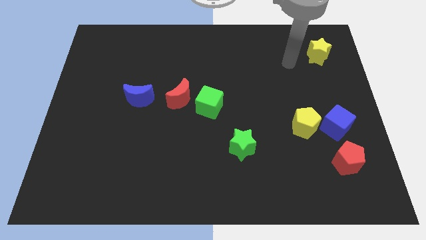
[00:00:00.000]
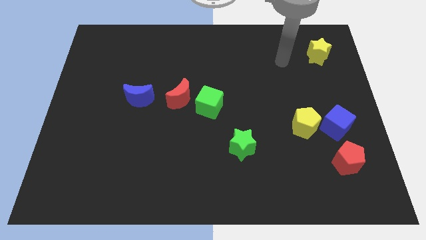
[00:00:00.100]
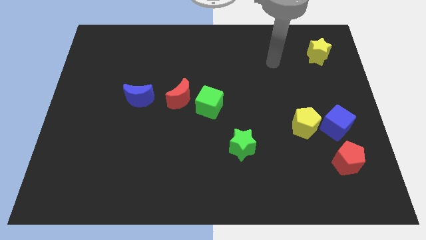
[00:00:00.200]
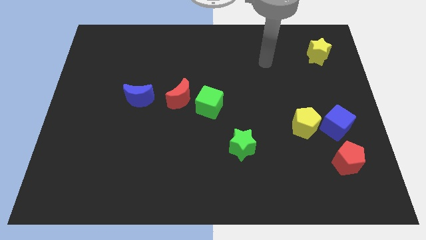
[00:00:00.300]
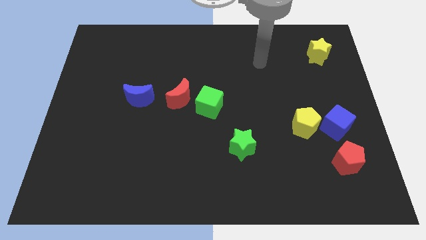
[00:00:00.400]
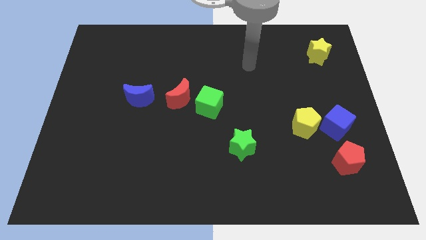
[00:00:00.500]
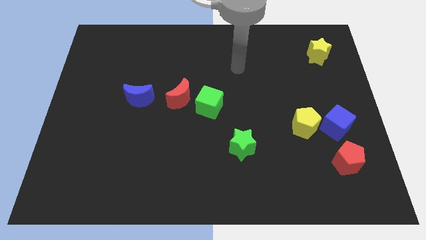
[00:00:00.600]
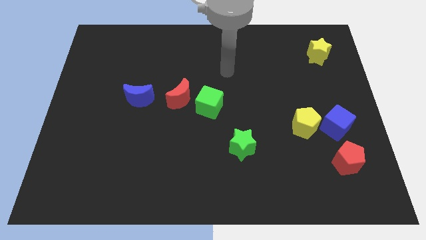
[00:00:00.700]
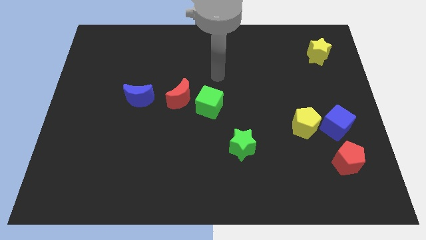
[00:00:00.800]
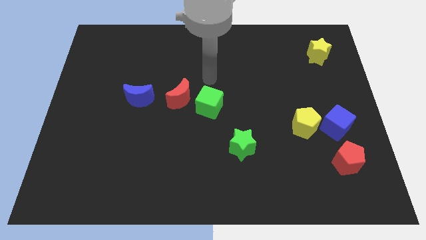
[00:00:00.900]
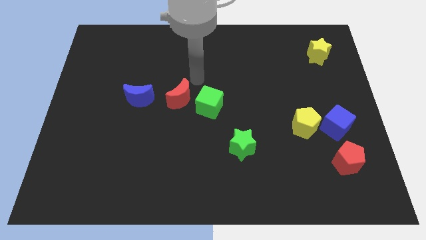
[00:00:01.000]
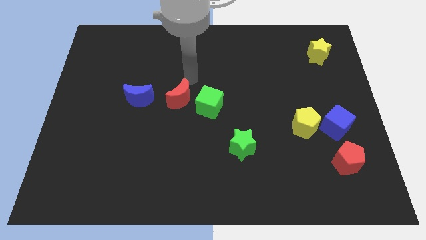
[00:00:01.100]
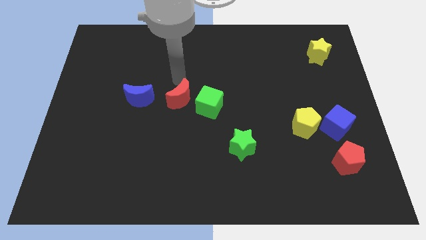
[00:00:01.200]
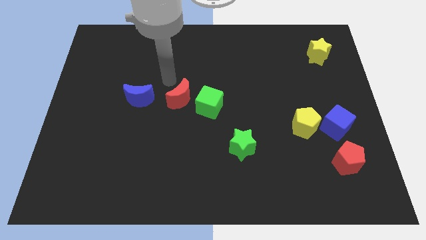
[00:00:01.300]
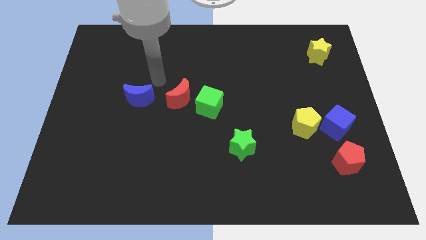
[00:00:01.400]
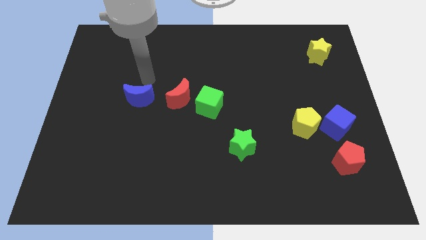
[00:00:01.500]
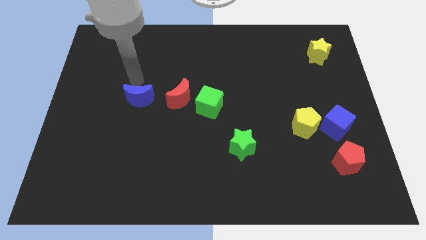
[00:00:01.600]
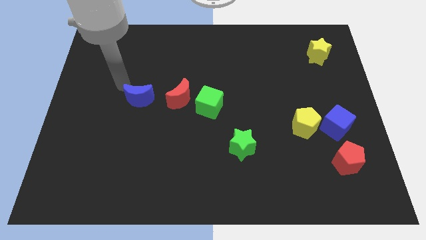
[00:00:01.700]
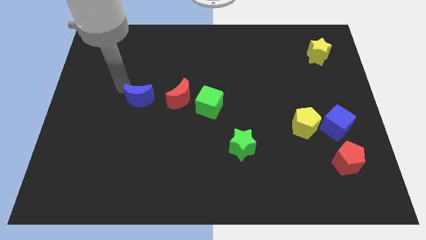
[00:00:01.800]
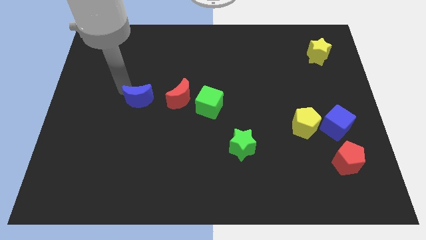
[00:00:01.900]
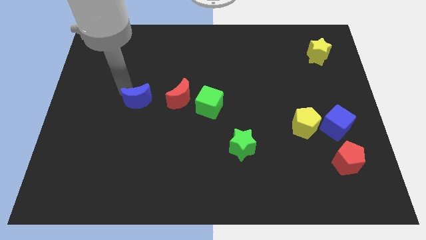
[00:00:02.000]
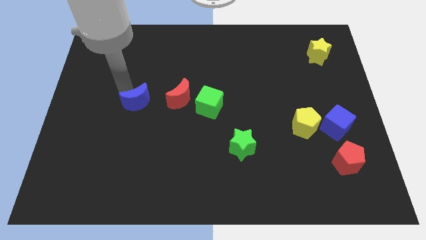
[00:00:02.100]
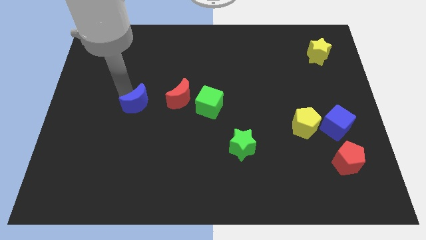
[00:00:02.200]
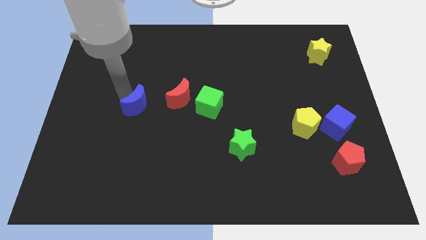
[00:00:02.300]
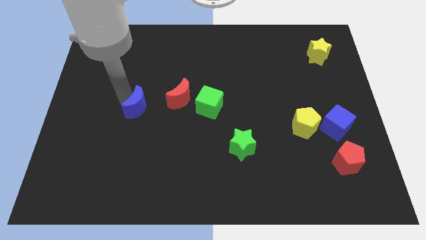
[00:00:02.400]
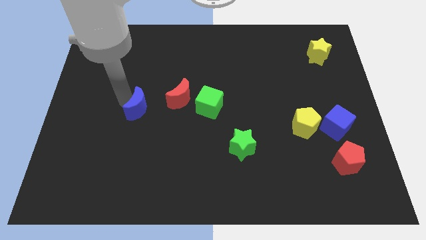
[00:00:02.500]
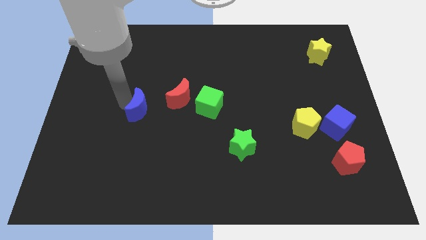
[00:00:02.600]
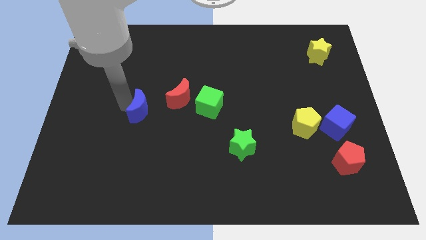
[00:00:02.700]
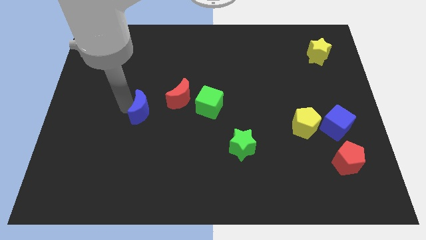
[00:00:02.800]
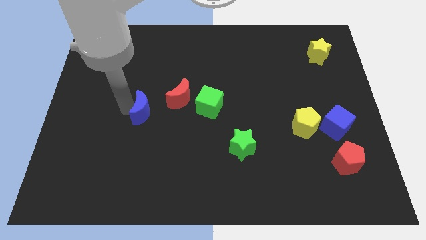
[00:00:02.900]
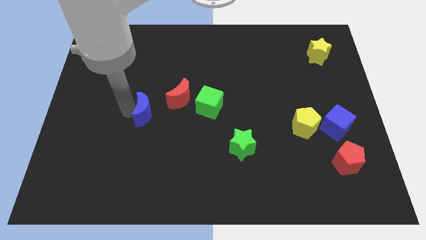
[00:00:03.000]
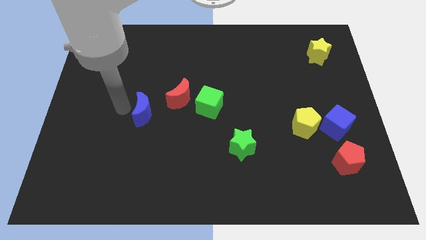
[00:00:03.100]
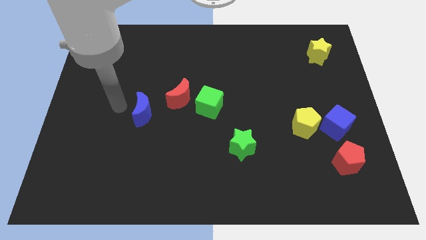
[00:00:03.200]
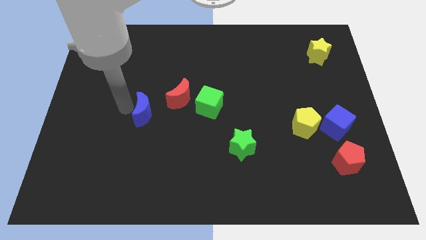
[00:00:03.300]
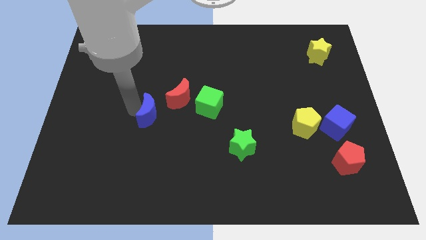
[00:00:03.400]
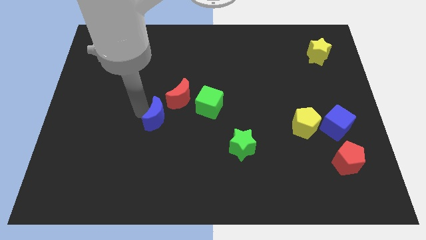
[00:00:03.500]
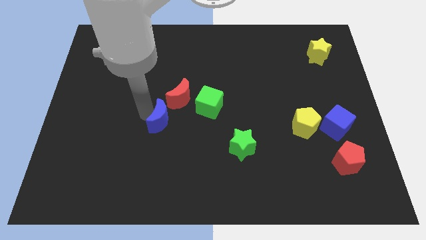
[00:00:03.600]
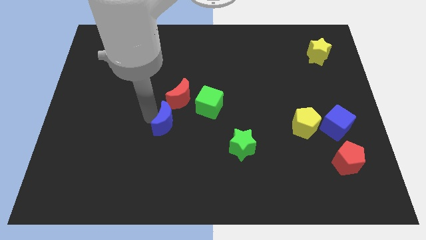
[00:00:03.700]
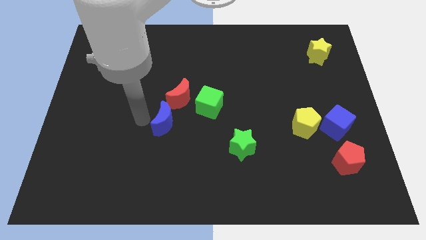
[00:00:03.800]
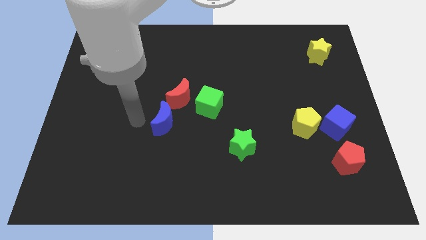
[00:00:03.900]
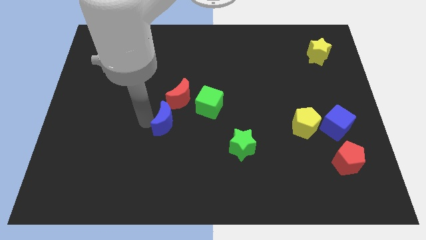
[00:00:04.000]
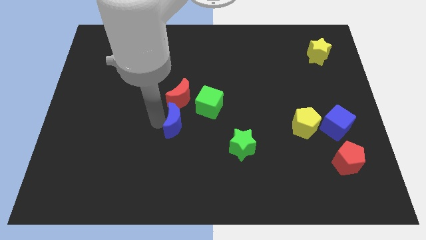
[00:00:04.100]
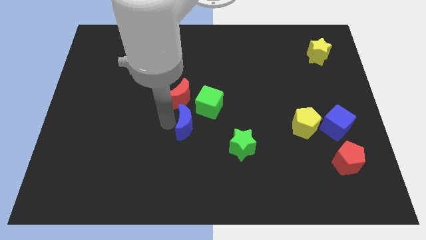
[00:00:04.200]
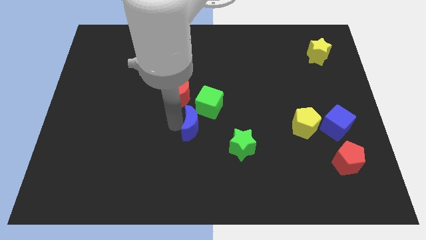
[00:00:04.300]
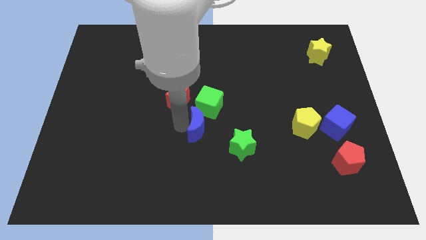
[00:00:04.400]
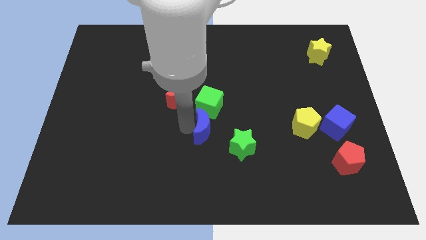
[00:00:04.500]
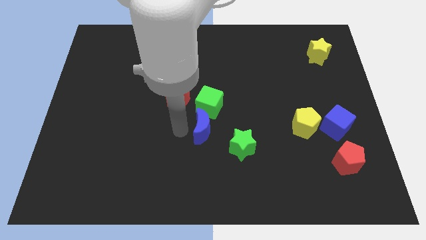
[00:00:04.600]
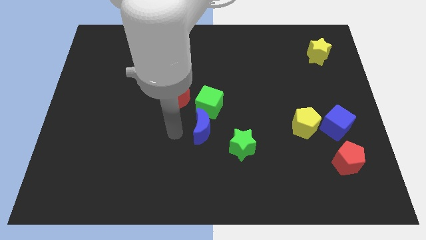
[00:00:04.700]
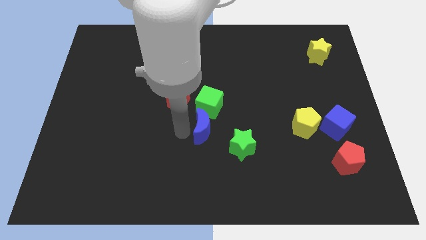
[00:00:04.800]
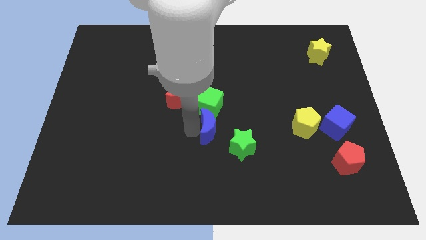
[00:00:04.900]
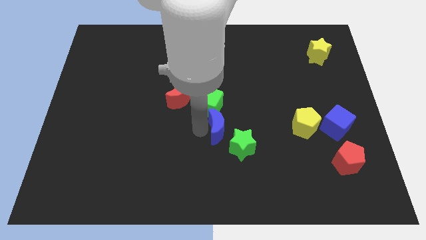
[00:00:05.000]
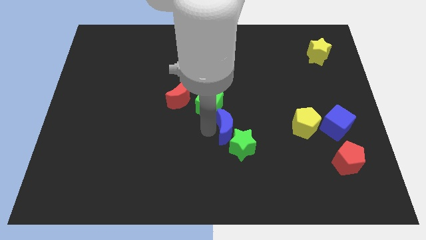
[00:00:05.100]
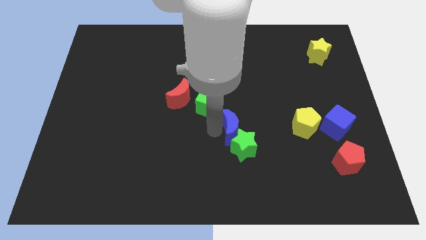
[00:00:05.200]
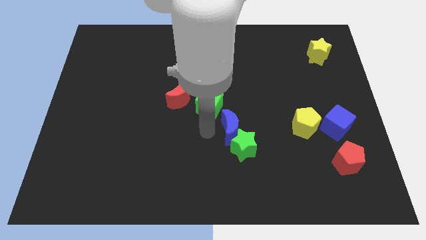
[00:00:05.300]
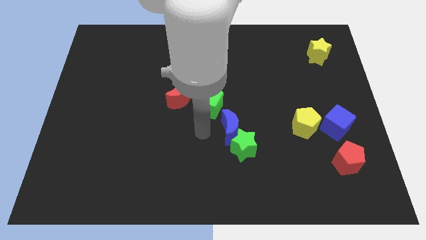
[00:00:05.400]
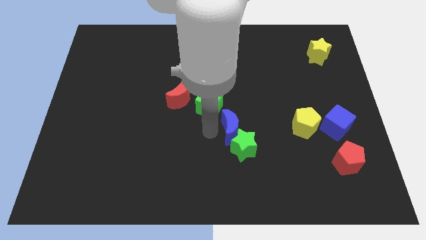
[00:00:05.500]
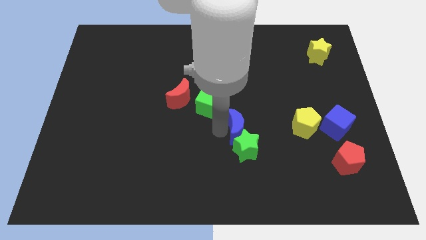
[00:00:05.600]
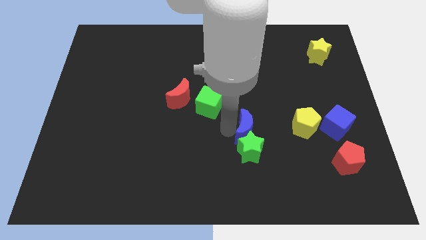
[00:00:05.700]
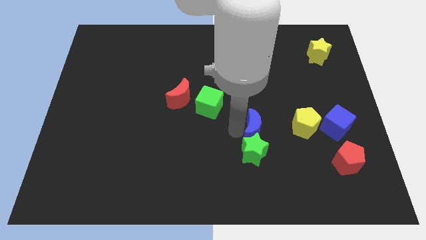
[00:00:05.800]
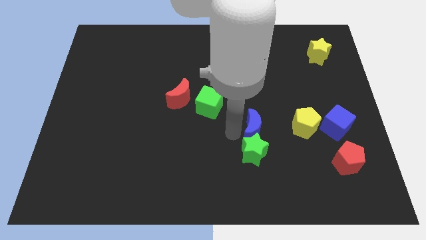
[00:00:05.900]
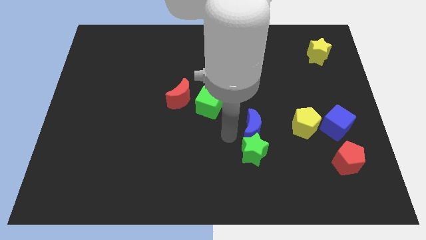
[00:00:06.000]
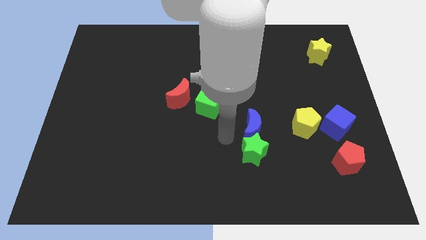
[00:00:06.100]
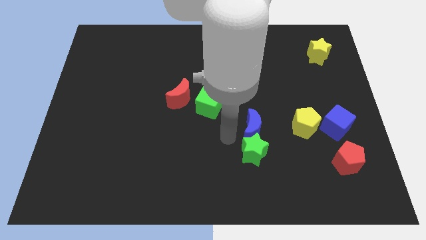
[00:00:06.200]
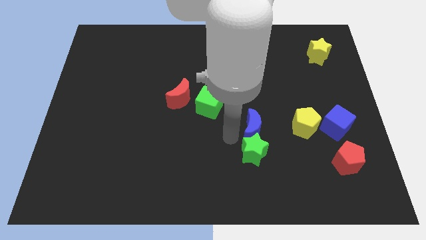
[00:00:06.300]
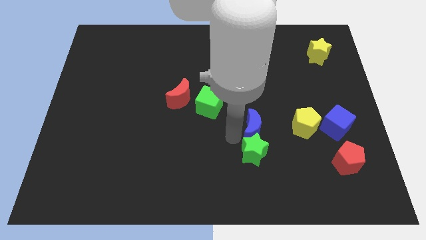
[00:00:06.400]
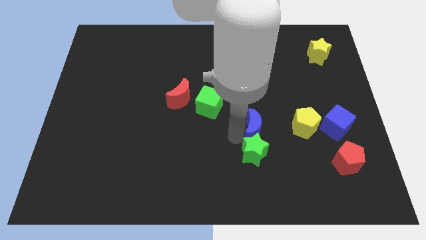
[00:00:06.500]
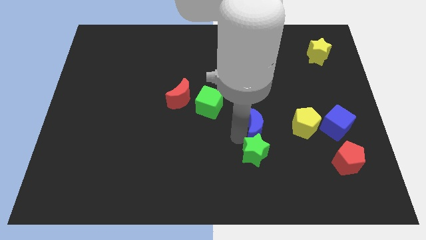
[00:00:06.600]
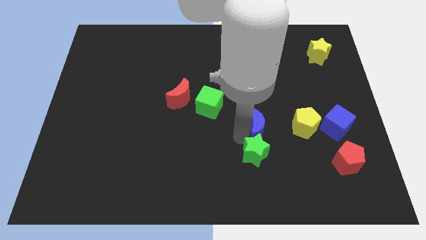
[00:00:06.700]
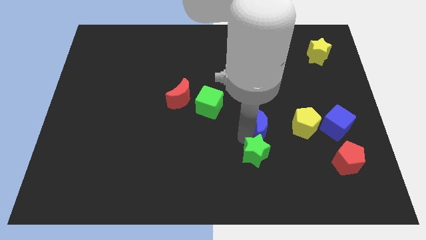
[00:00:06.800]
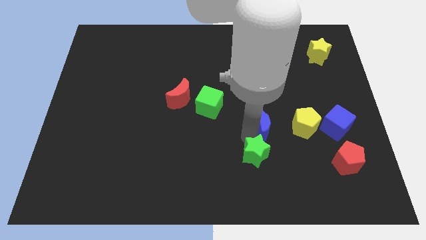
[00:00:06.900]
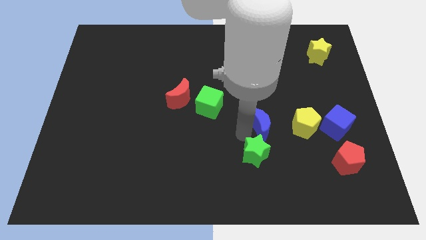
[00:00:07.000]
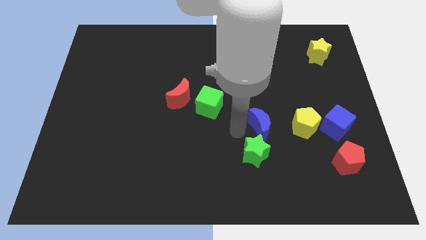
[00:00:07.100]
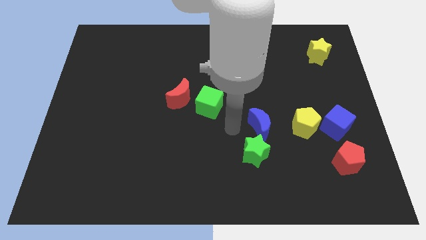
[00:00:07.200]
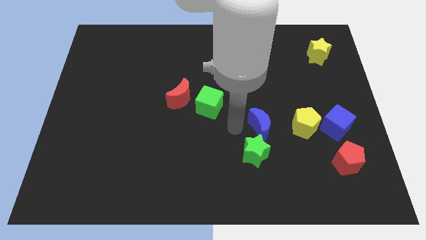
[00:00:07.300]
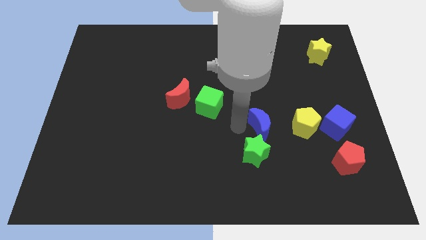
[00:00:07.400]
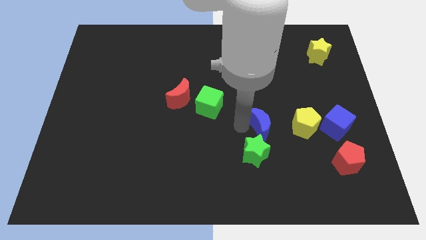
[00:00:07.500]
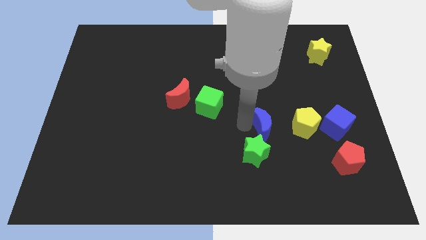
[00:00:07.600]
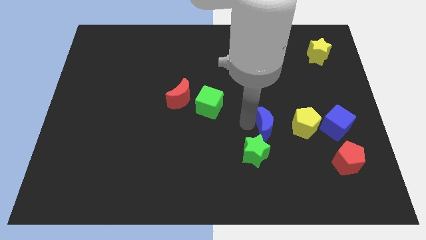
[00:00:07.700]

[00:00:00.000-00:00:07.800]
push the blue moon left of the blue cube
